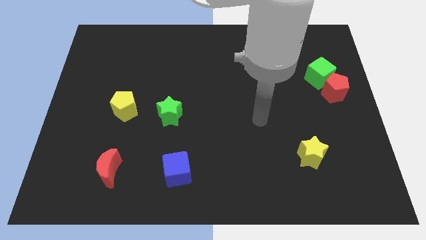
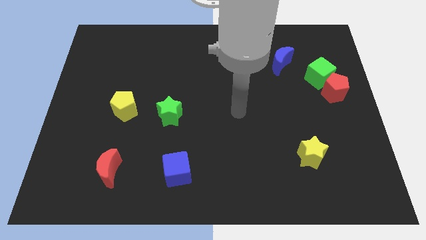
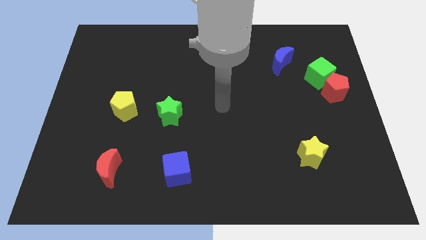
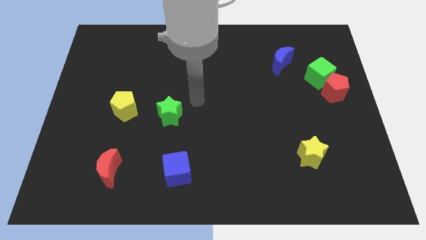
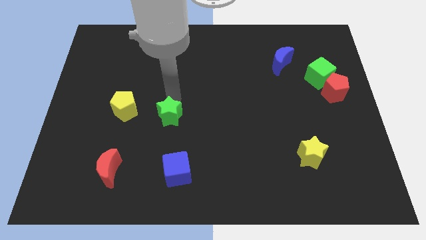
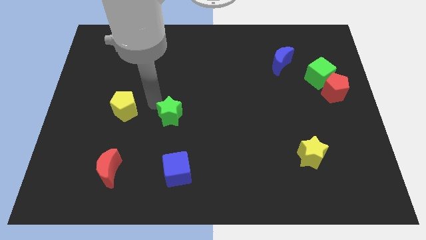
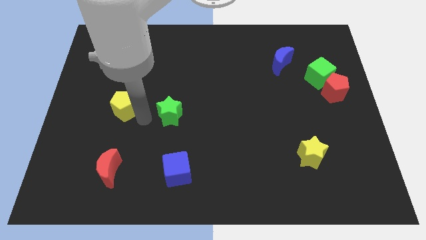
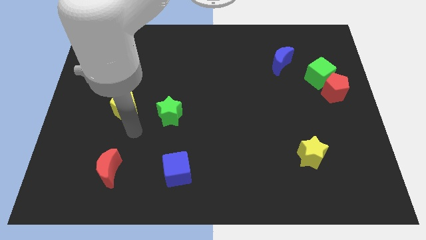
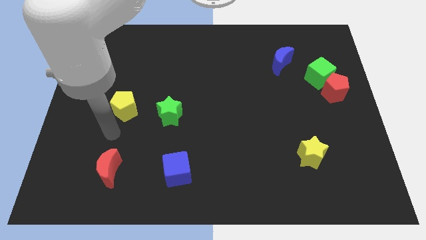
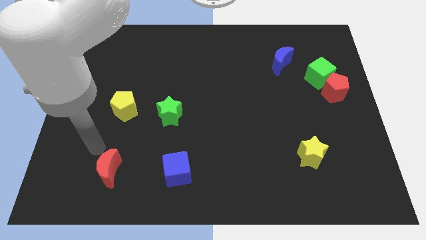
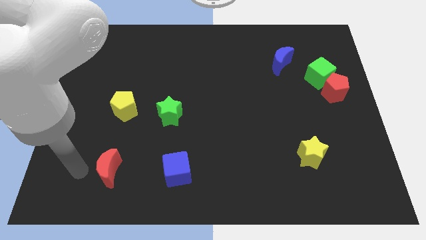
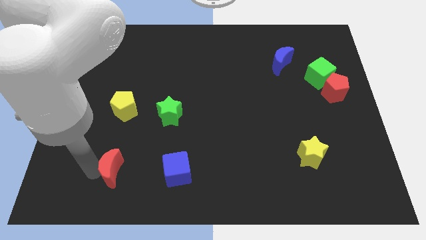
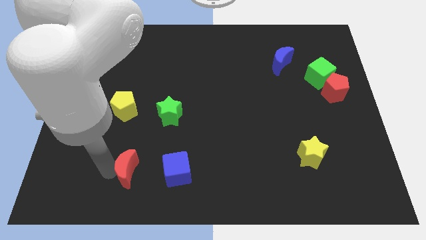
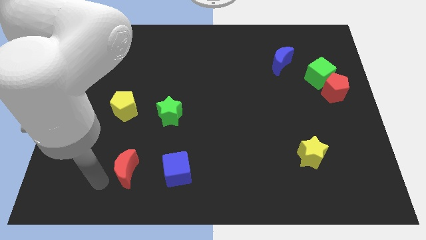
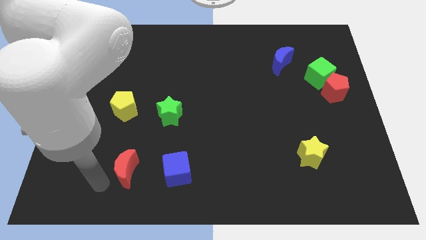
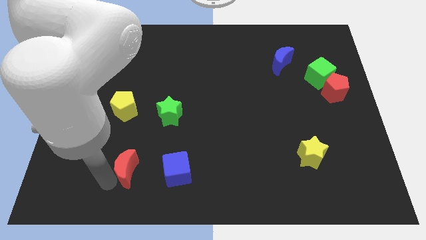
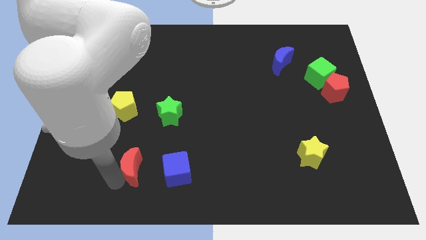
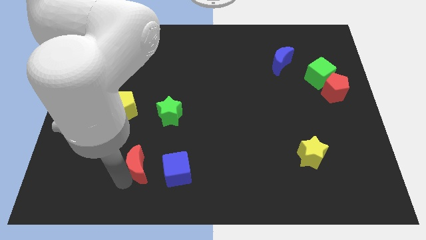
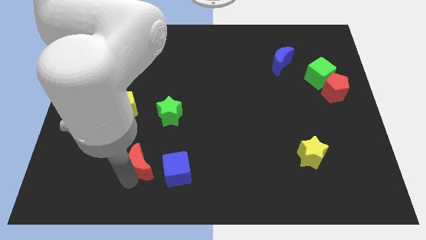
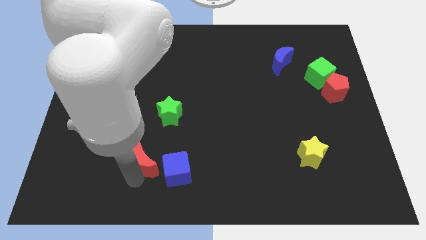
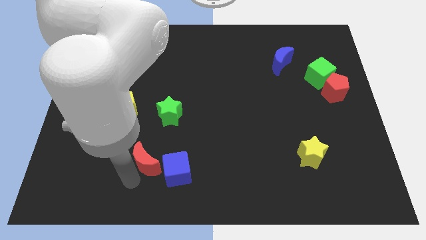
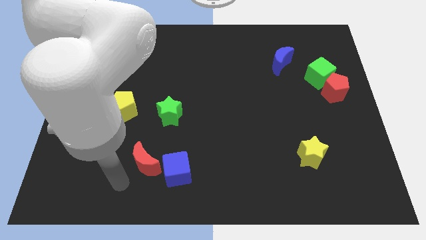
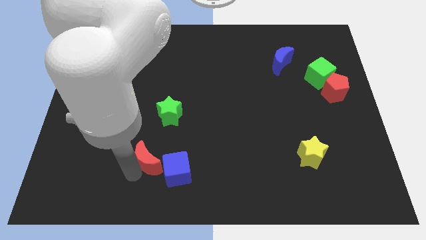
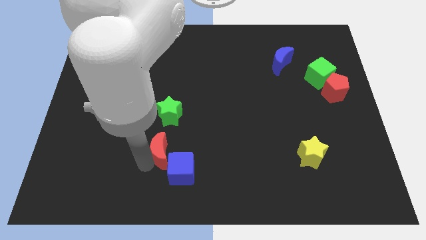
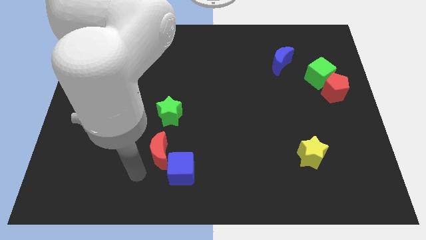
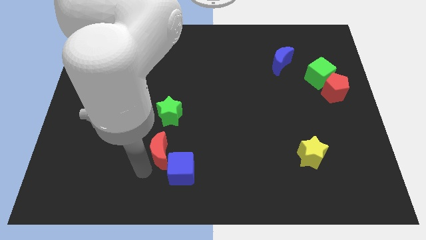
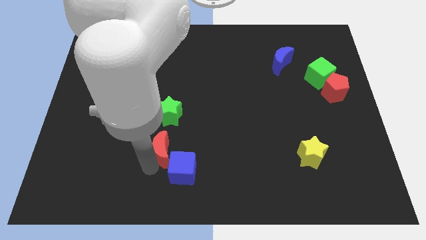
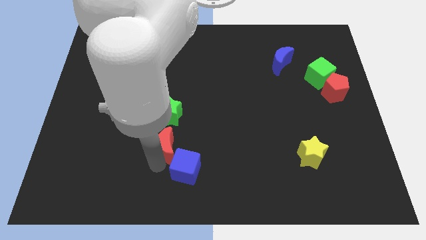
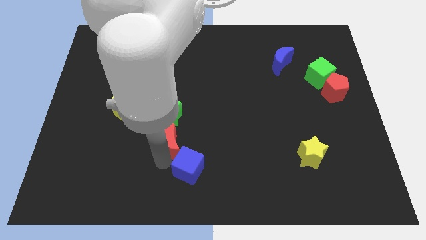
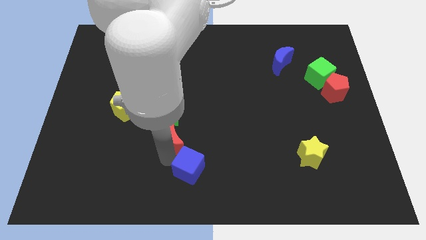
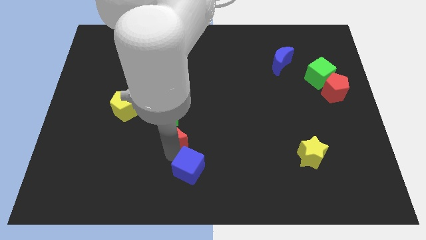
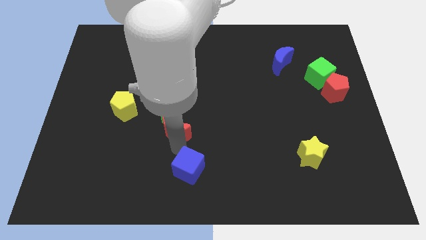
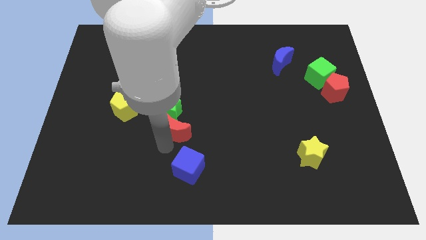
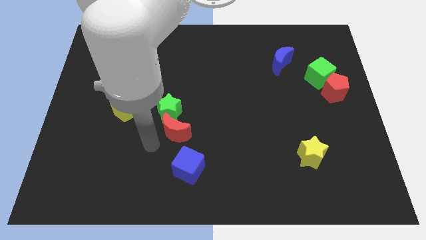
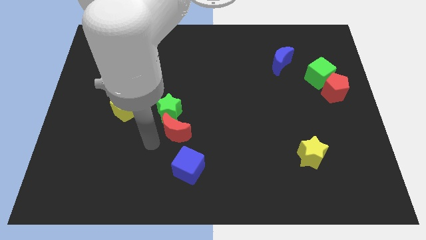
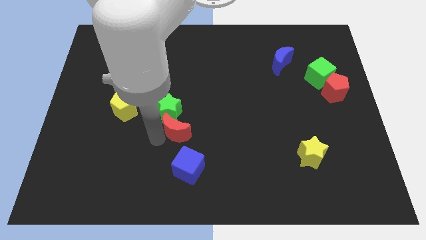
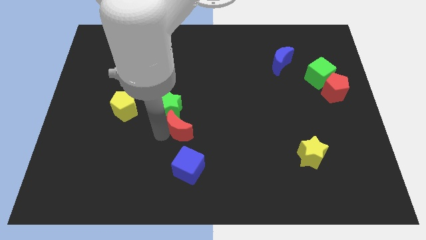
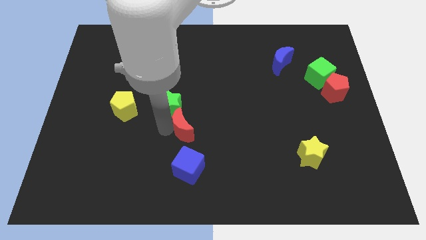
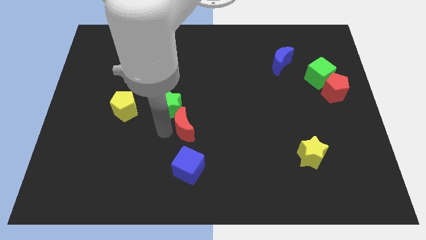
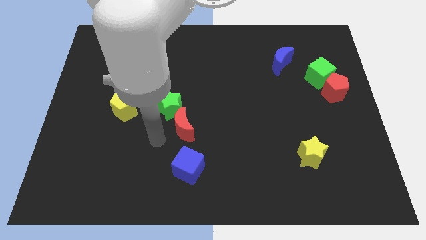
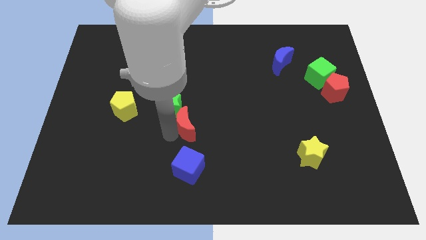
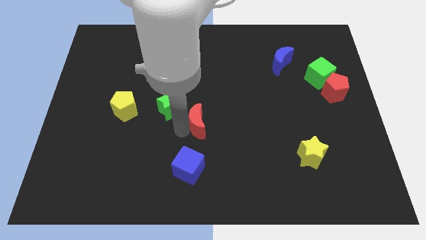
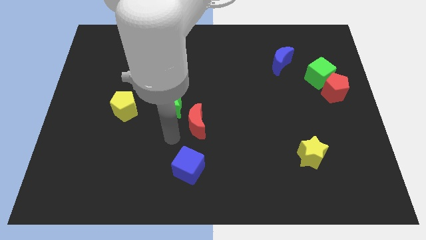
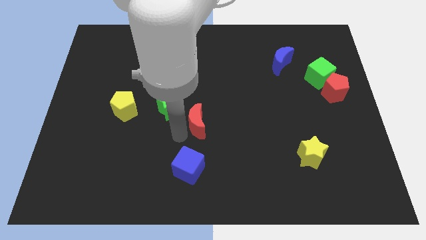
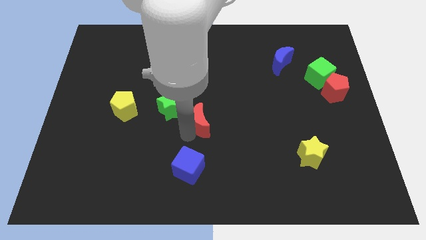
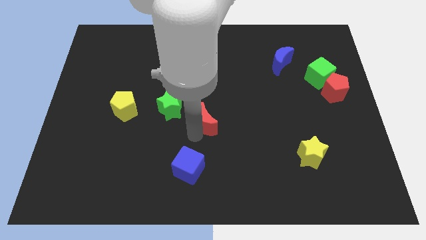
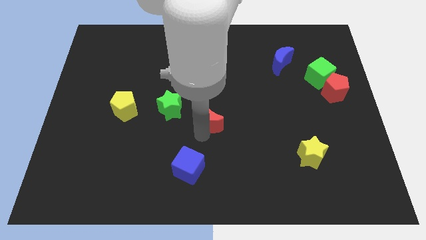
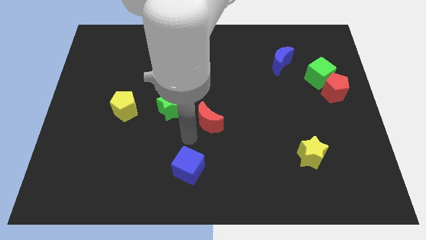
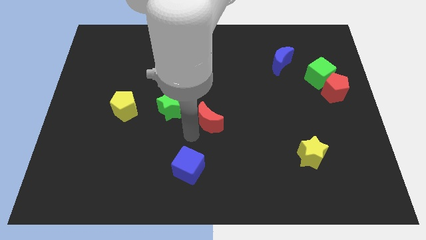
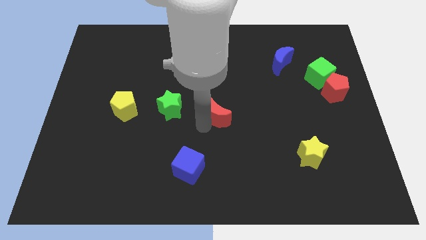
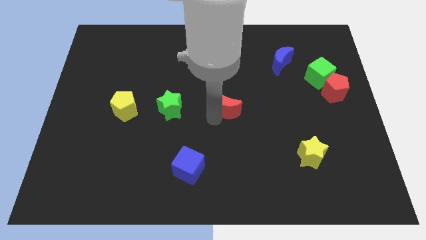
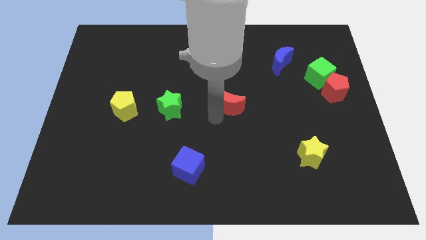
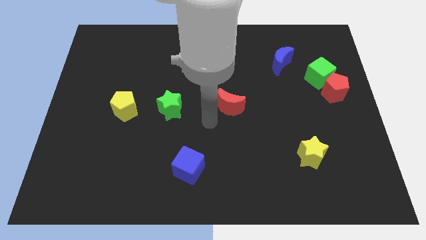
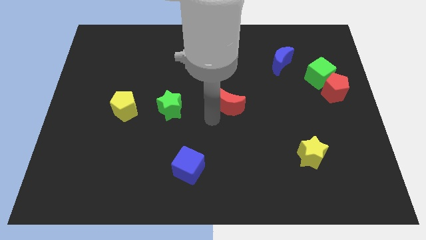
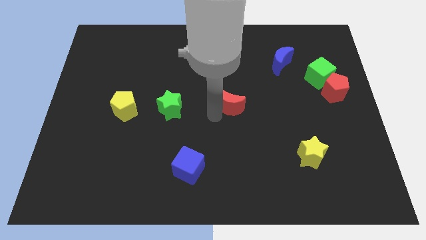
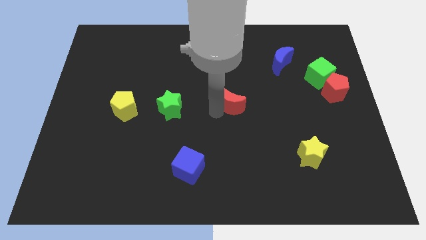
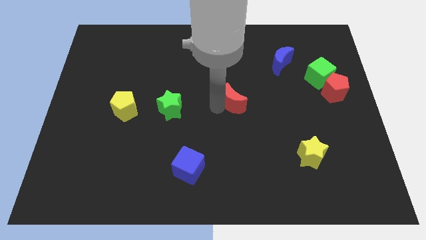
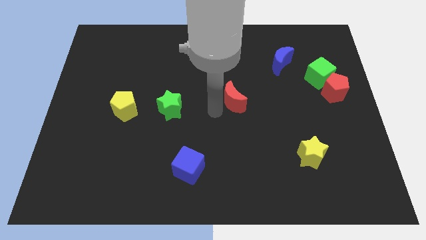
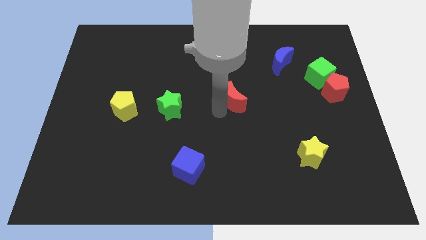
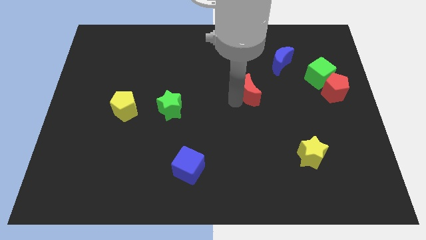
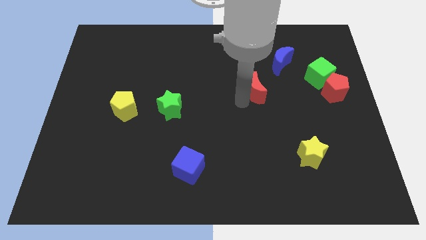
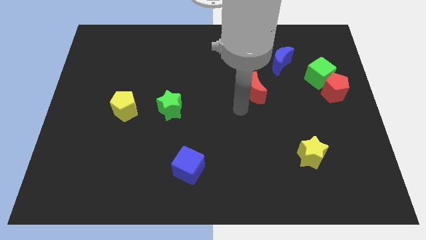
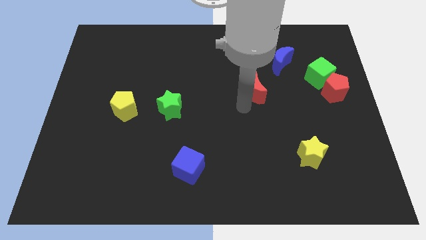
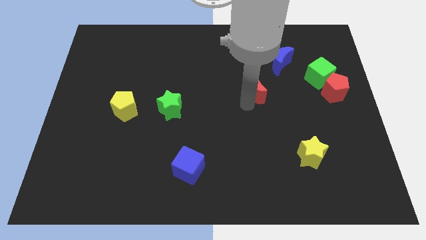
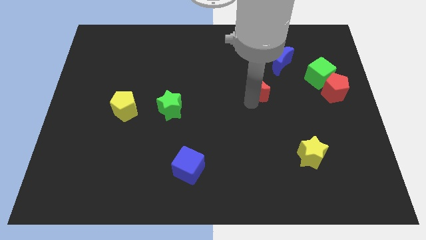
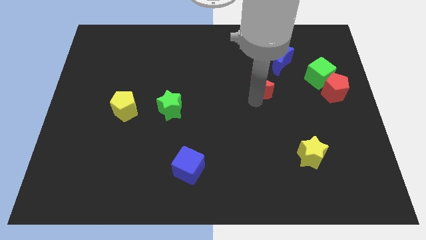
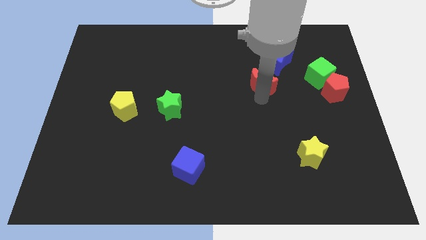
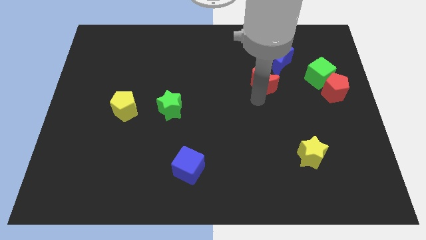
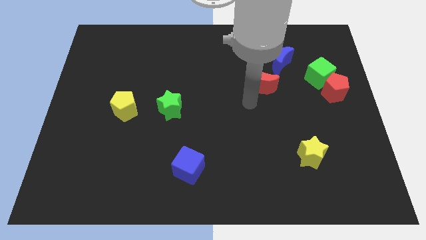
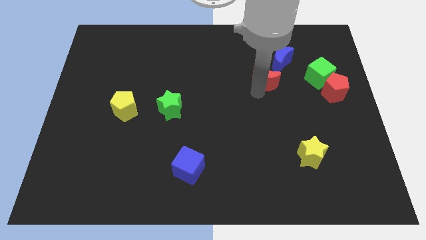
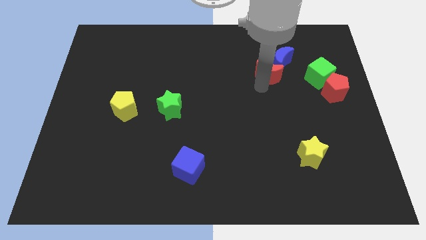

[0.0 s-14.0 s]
move the red moon towards the blue moon
